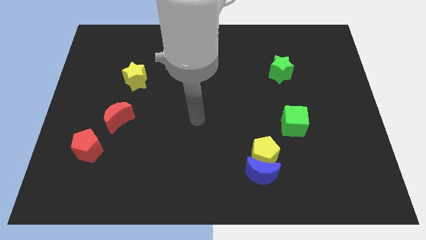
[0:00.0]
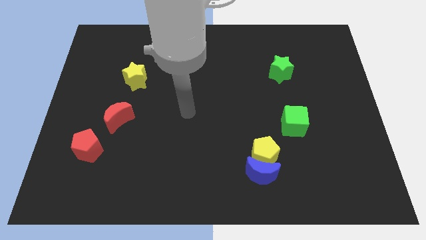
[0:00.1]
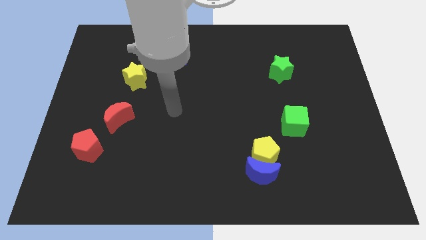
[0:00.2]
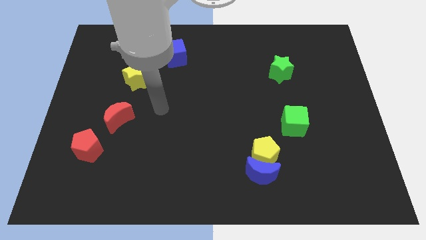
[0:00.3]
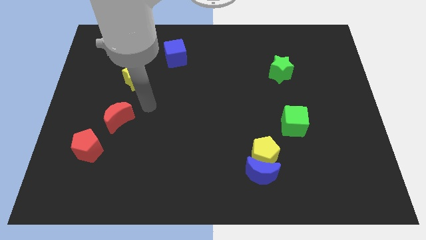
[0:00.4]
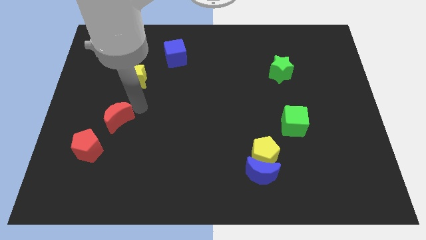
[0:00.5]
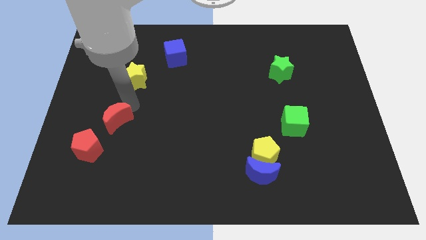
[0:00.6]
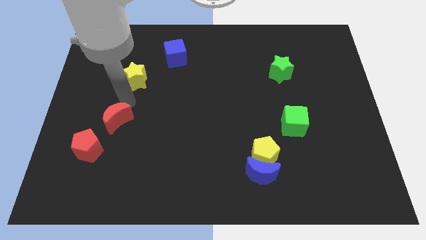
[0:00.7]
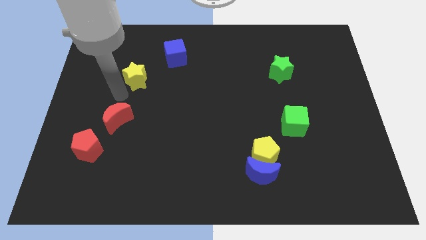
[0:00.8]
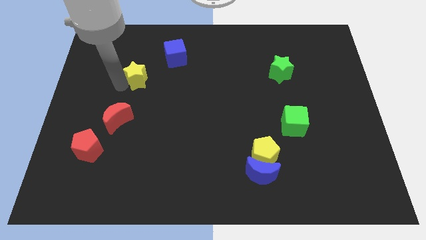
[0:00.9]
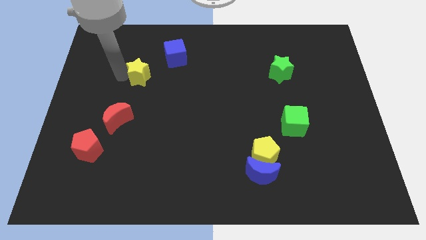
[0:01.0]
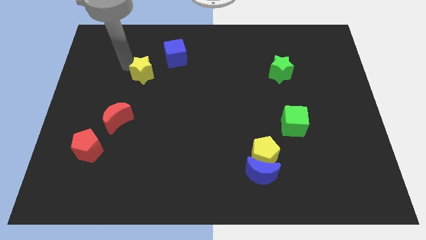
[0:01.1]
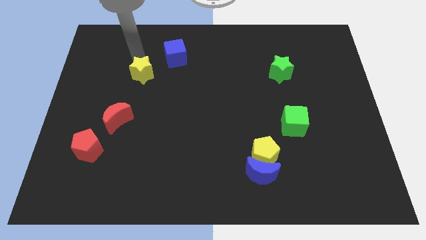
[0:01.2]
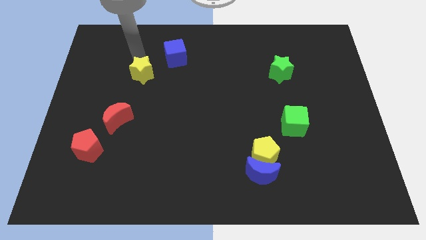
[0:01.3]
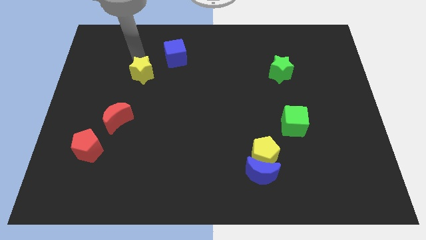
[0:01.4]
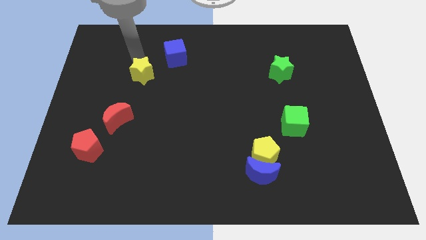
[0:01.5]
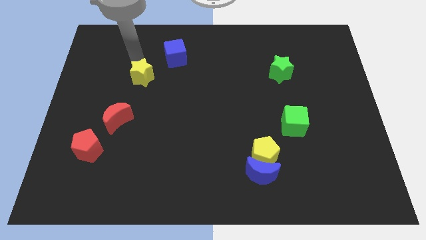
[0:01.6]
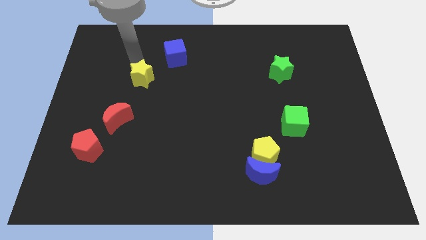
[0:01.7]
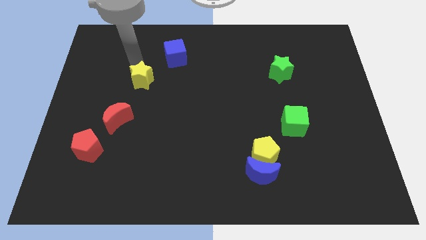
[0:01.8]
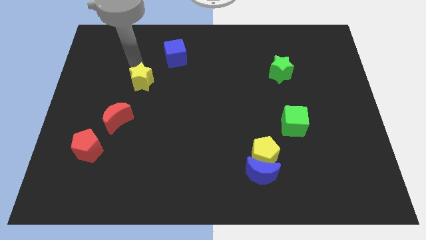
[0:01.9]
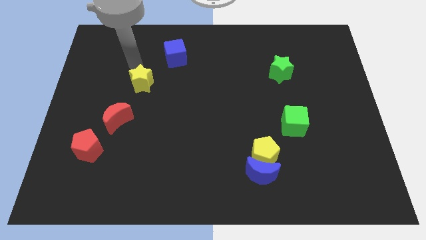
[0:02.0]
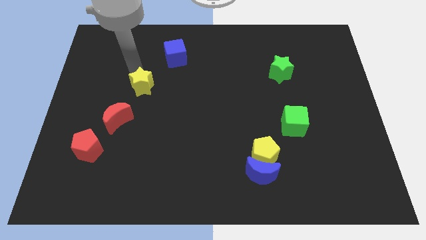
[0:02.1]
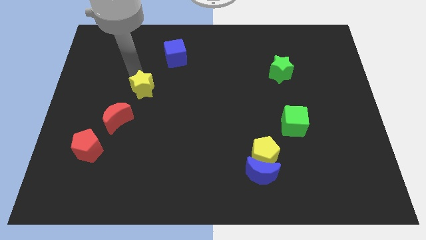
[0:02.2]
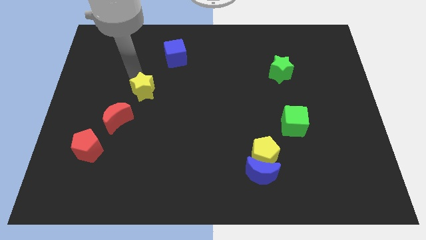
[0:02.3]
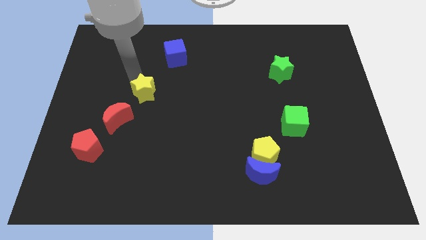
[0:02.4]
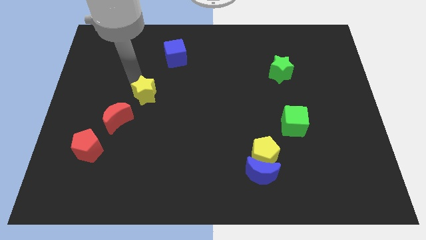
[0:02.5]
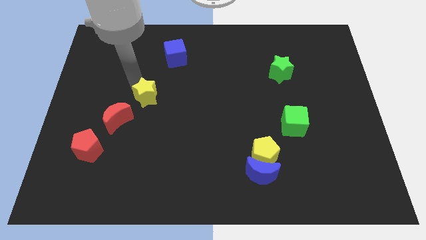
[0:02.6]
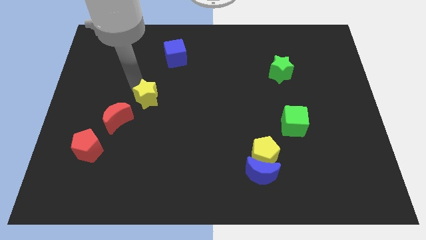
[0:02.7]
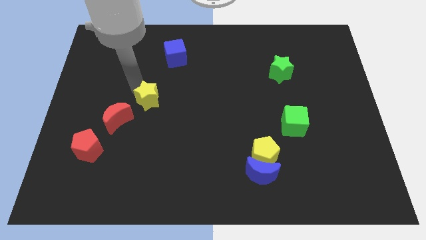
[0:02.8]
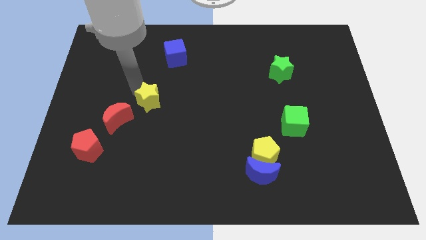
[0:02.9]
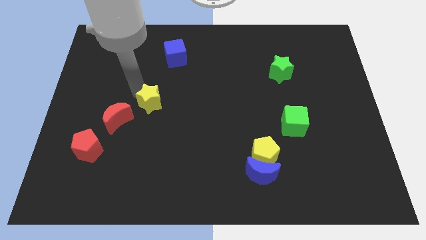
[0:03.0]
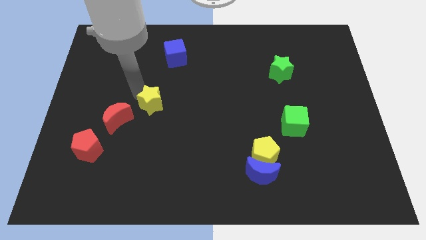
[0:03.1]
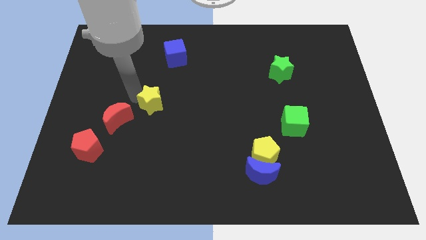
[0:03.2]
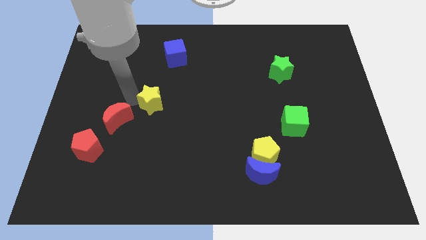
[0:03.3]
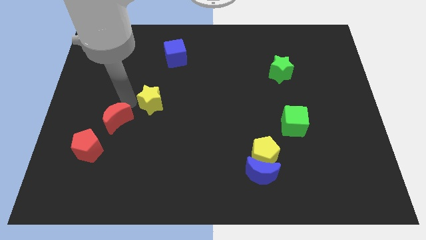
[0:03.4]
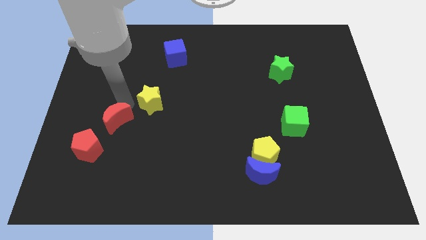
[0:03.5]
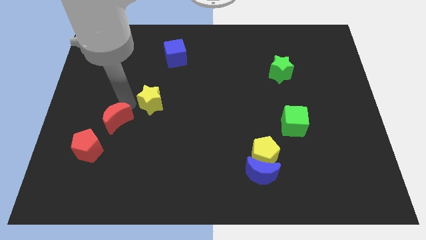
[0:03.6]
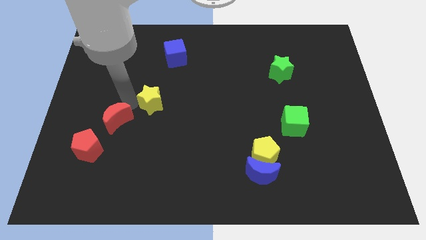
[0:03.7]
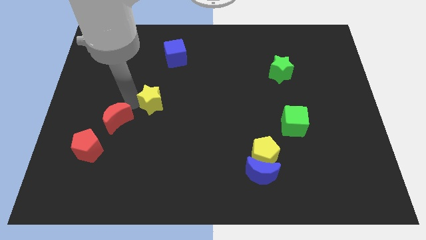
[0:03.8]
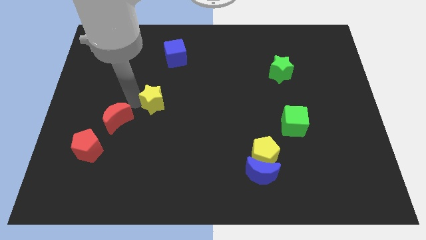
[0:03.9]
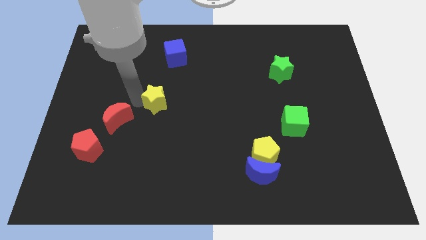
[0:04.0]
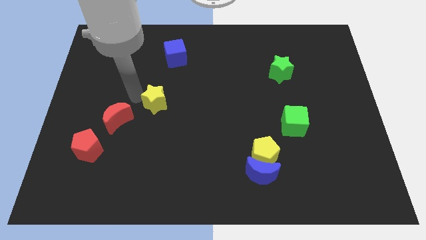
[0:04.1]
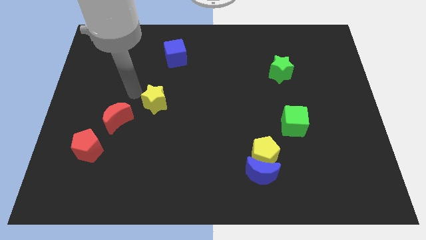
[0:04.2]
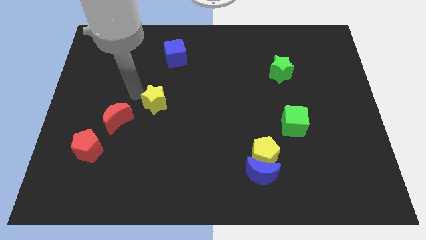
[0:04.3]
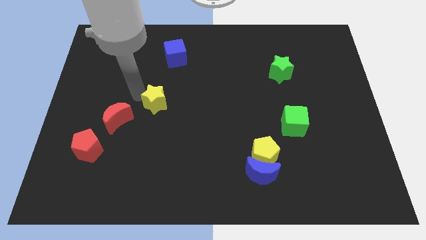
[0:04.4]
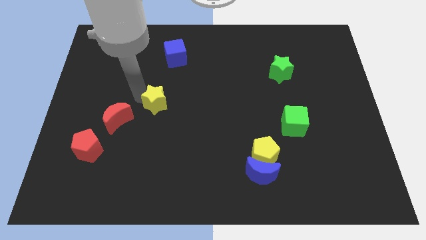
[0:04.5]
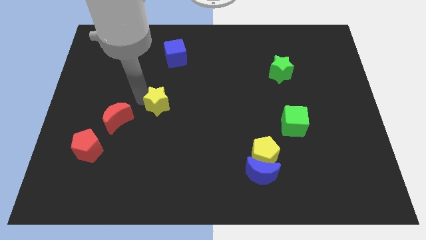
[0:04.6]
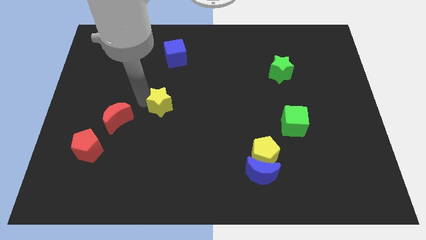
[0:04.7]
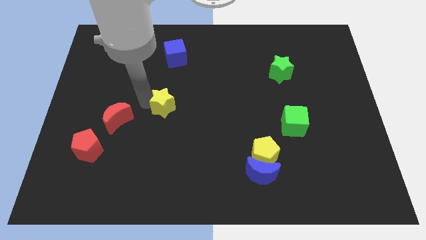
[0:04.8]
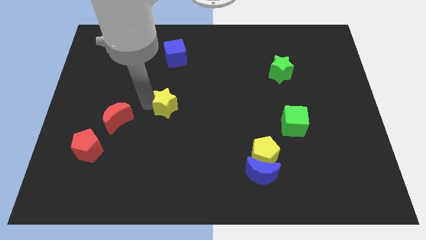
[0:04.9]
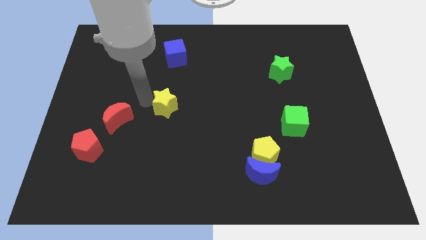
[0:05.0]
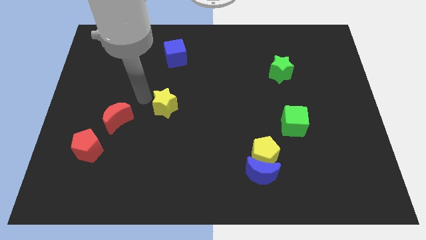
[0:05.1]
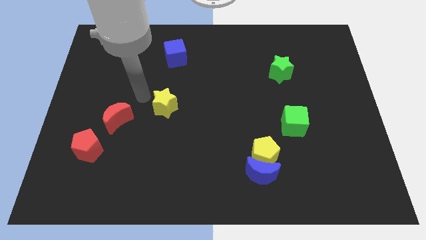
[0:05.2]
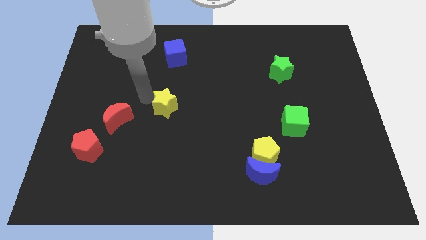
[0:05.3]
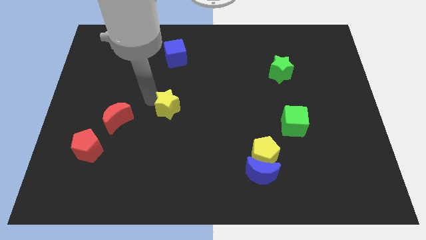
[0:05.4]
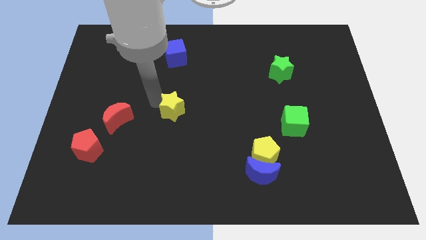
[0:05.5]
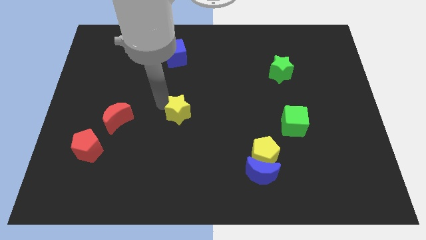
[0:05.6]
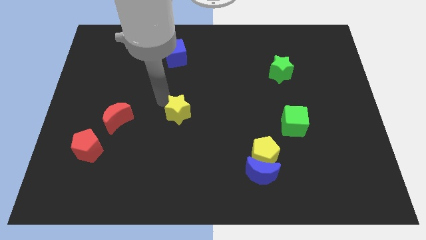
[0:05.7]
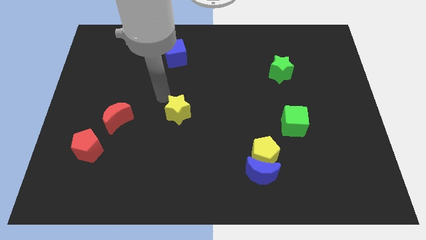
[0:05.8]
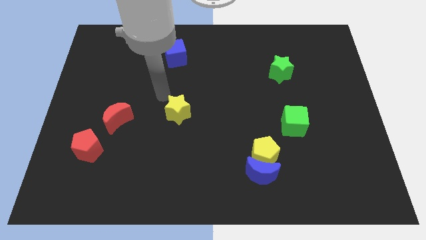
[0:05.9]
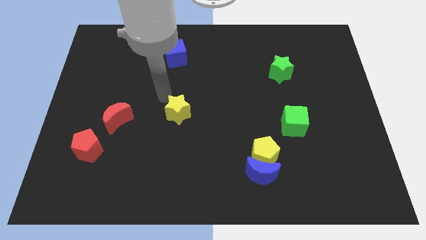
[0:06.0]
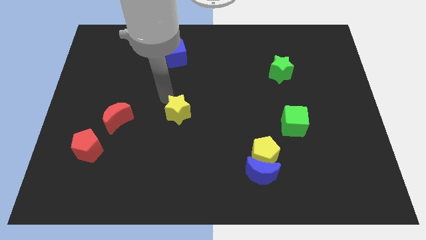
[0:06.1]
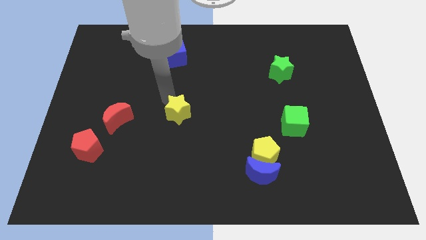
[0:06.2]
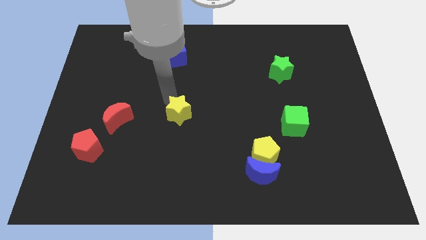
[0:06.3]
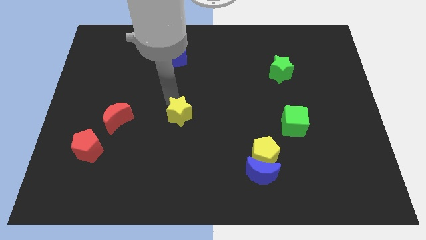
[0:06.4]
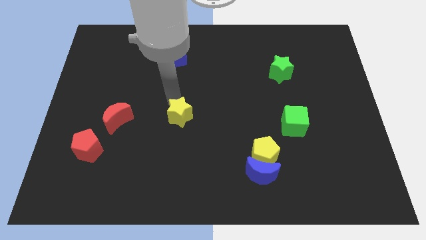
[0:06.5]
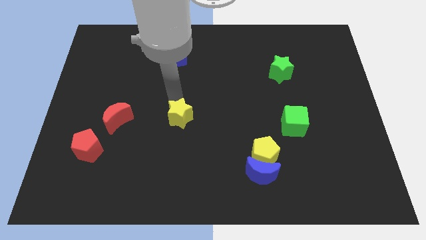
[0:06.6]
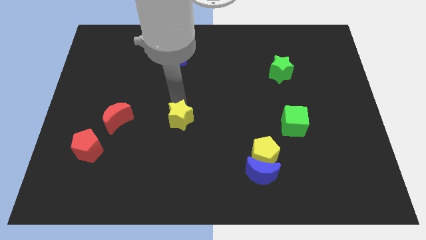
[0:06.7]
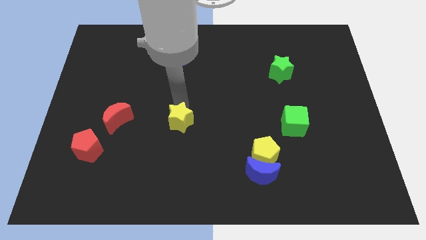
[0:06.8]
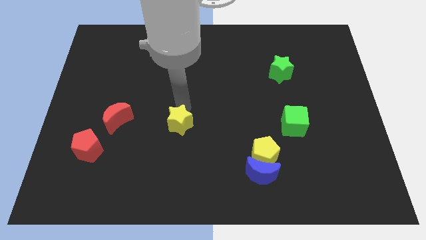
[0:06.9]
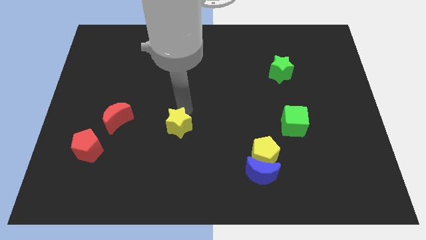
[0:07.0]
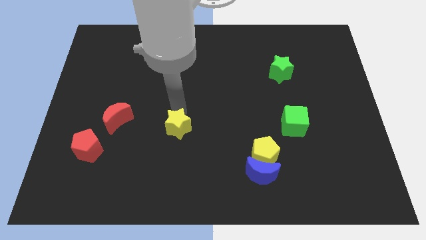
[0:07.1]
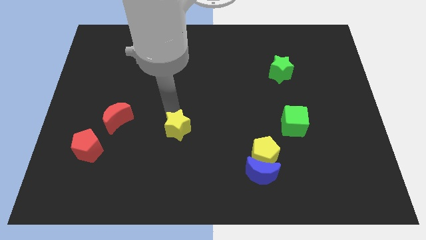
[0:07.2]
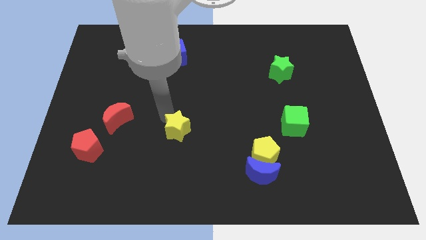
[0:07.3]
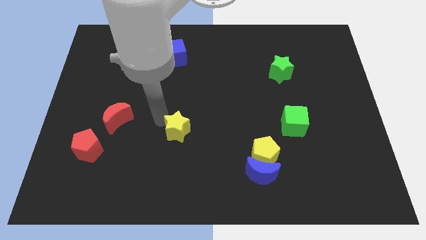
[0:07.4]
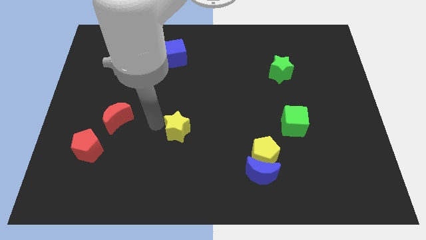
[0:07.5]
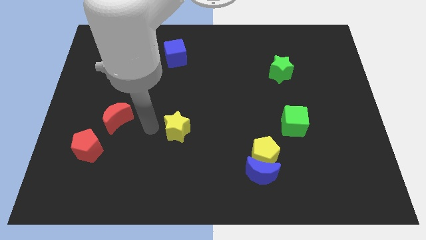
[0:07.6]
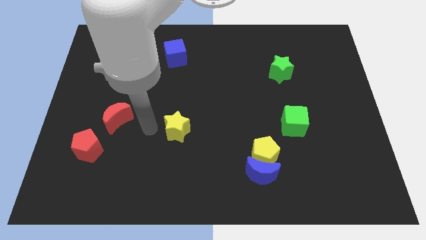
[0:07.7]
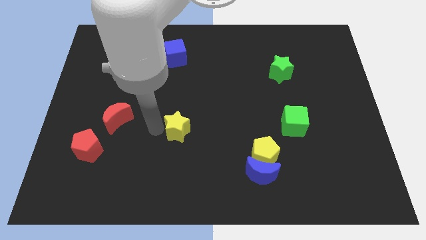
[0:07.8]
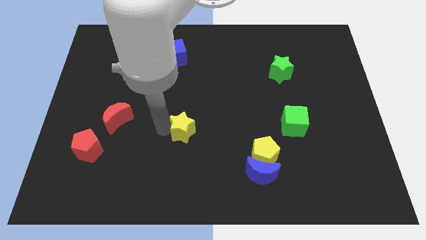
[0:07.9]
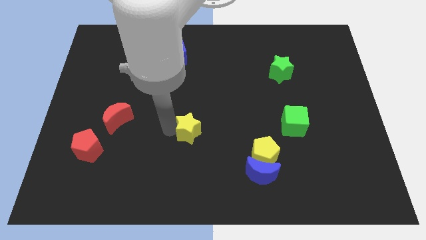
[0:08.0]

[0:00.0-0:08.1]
push the yellow star diagonally downwards and to the right
